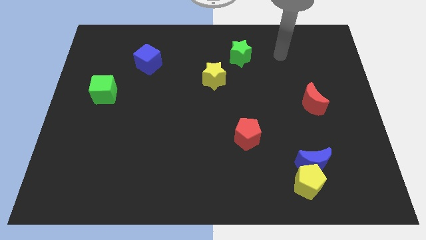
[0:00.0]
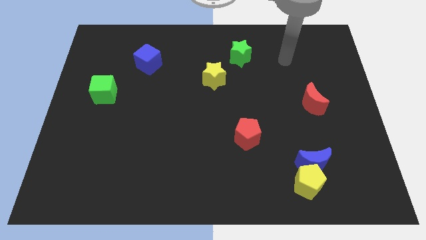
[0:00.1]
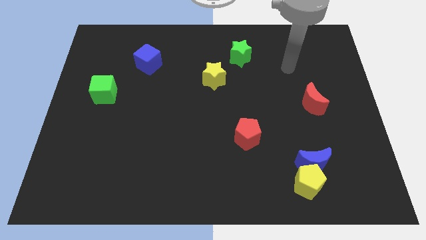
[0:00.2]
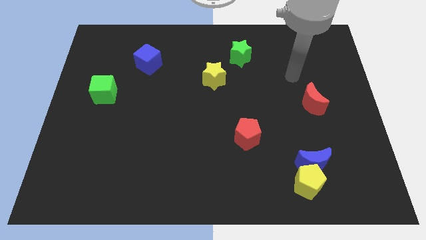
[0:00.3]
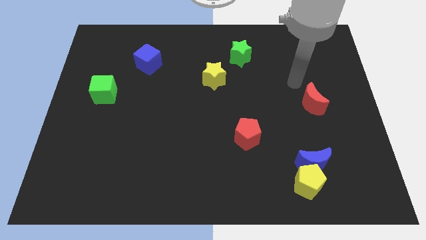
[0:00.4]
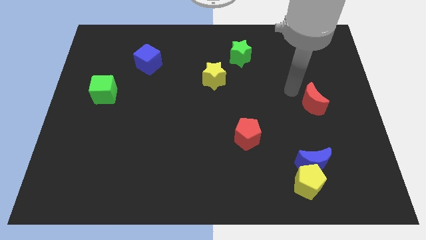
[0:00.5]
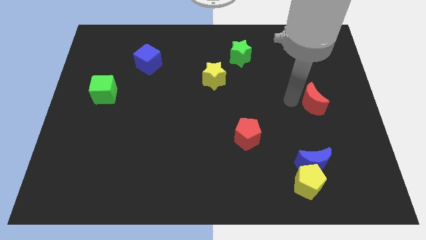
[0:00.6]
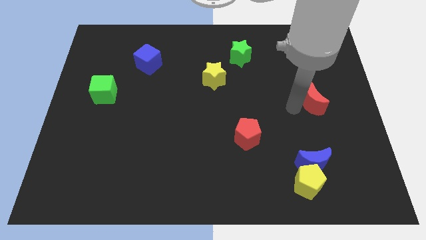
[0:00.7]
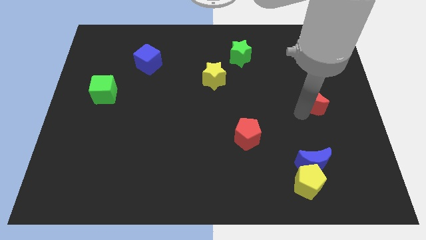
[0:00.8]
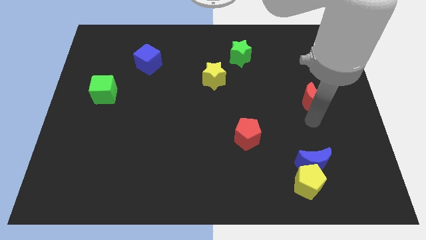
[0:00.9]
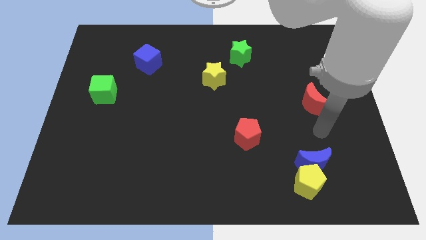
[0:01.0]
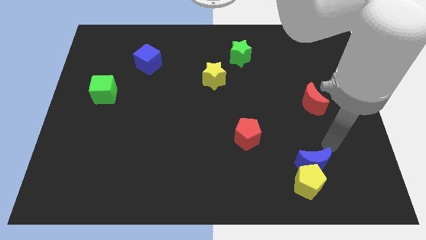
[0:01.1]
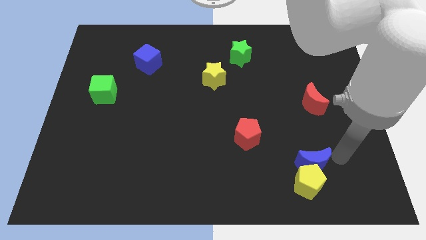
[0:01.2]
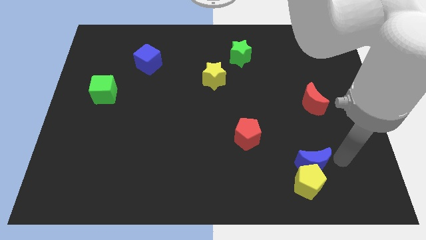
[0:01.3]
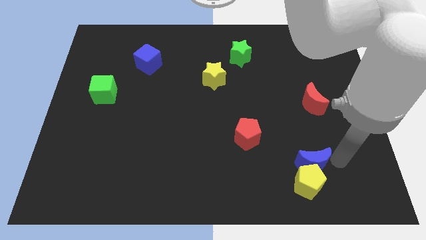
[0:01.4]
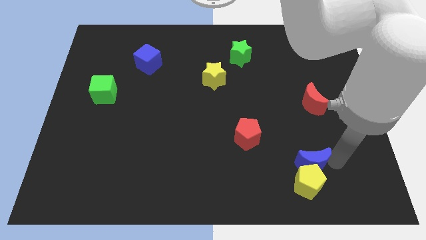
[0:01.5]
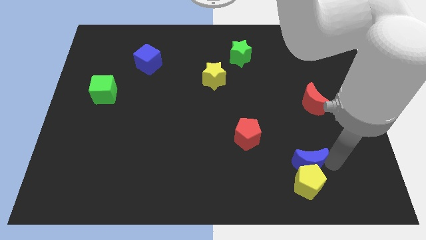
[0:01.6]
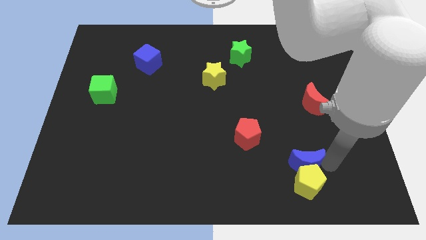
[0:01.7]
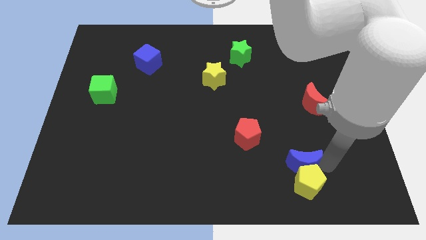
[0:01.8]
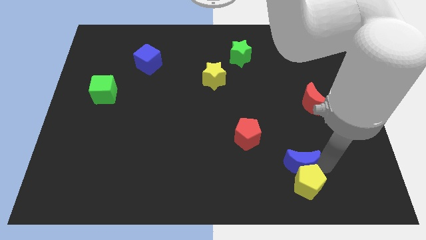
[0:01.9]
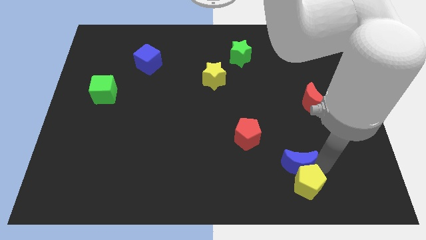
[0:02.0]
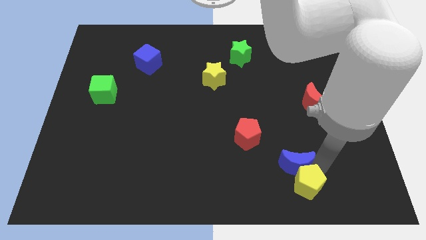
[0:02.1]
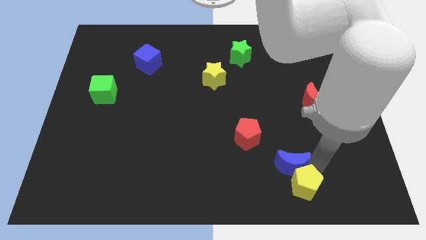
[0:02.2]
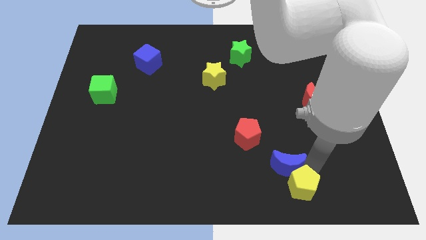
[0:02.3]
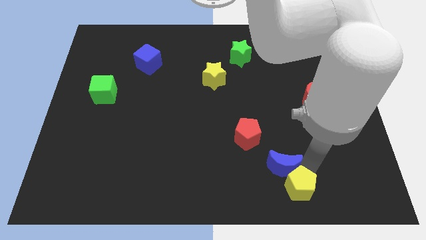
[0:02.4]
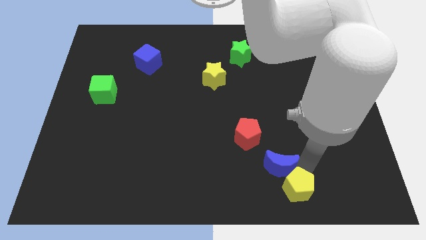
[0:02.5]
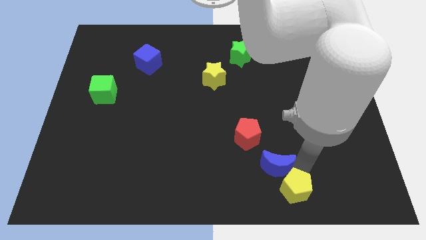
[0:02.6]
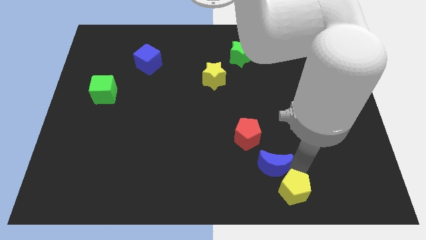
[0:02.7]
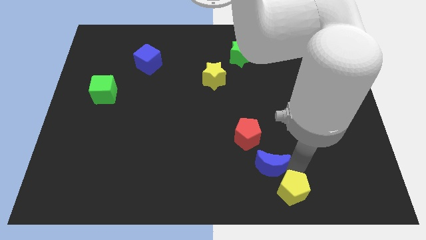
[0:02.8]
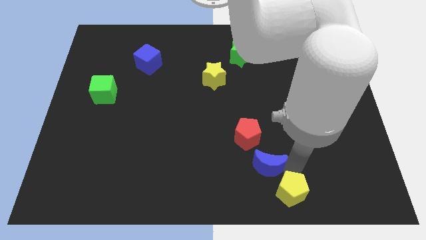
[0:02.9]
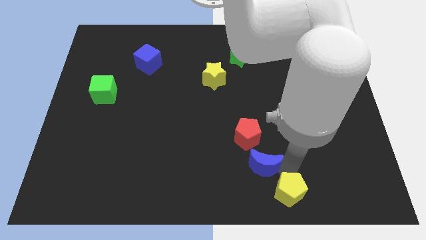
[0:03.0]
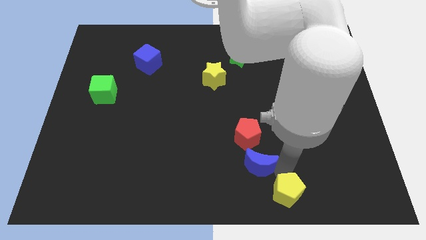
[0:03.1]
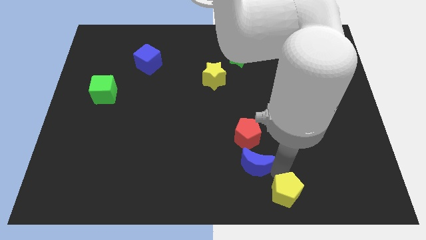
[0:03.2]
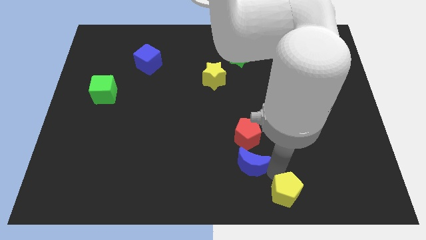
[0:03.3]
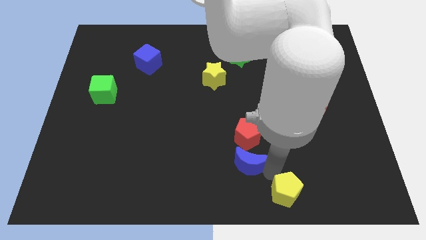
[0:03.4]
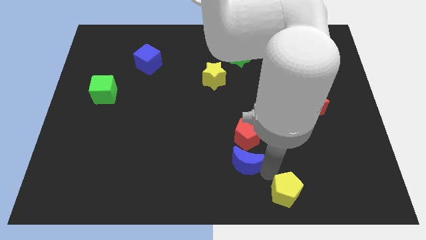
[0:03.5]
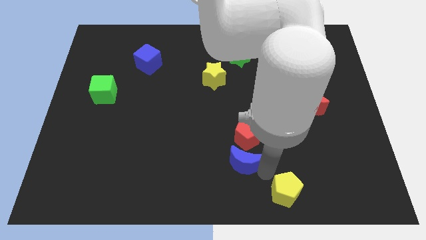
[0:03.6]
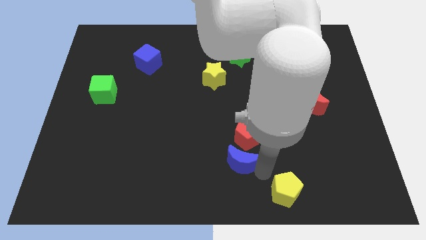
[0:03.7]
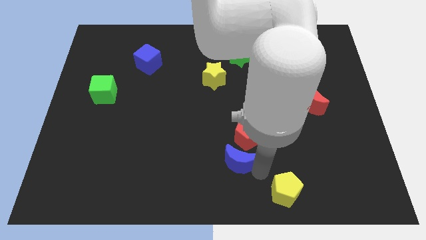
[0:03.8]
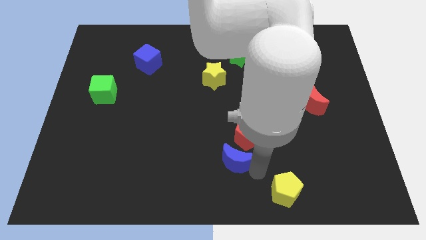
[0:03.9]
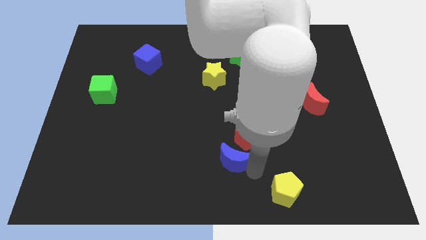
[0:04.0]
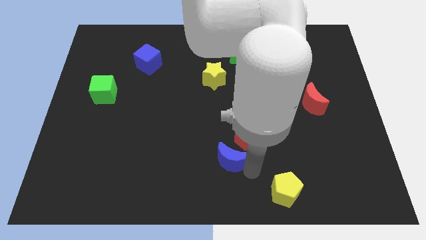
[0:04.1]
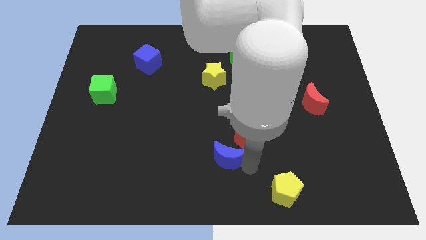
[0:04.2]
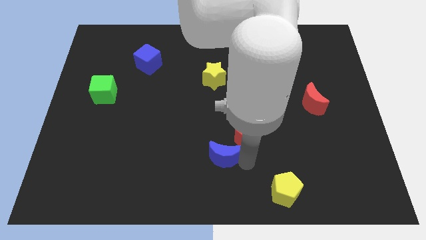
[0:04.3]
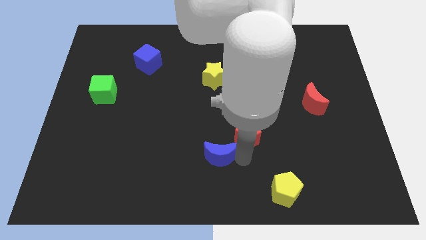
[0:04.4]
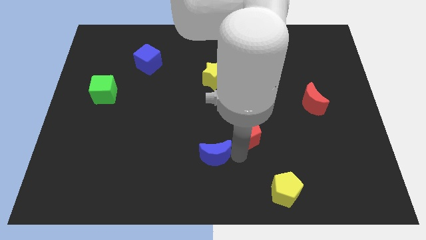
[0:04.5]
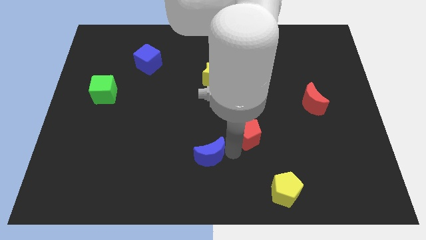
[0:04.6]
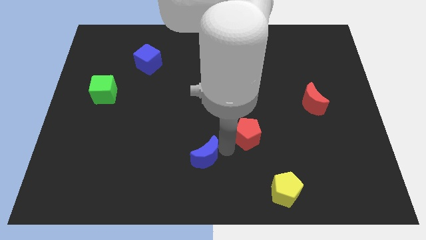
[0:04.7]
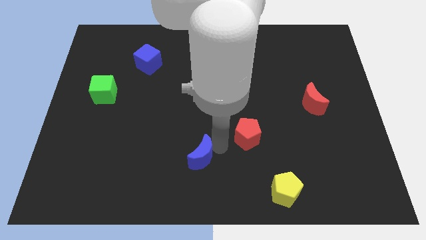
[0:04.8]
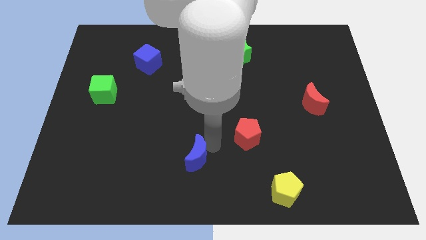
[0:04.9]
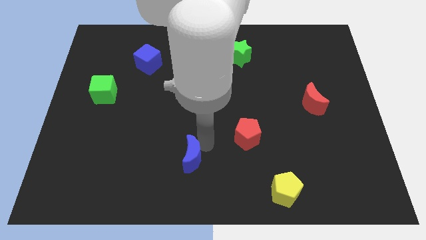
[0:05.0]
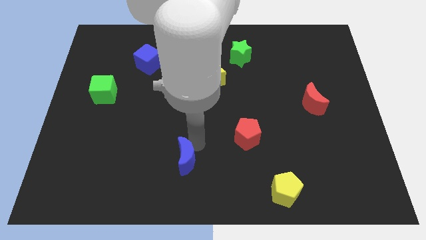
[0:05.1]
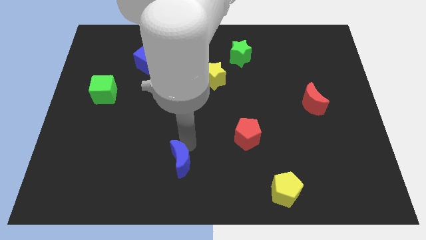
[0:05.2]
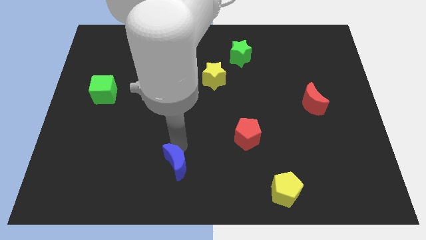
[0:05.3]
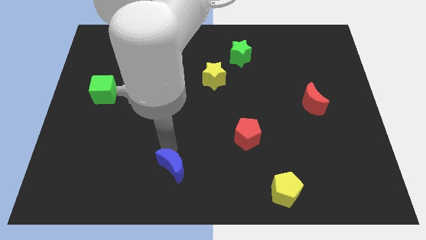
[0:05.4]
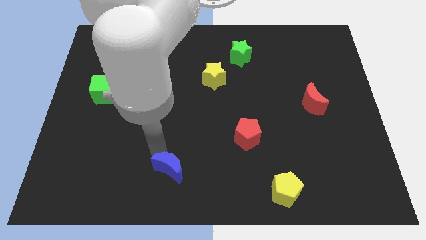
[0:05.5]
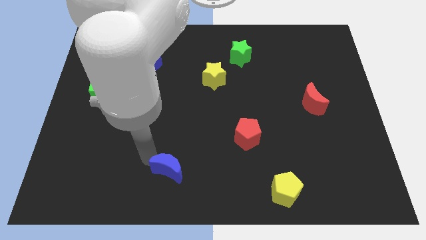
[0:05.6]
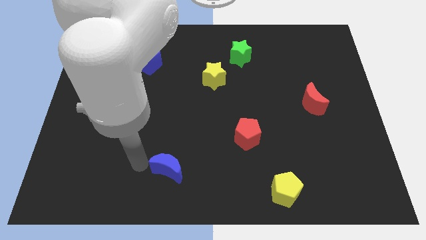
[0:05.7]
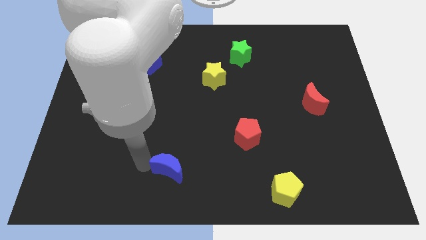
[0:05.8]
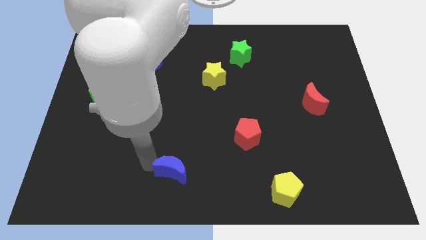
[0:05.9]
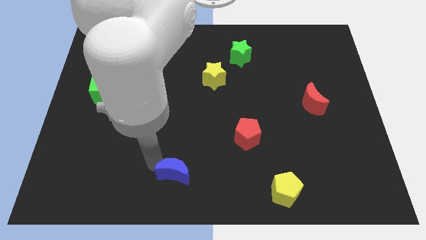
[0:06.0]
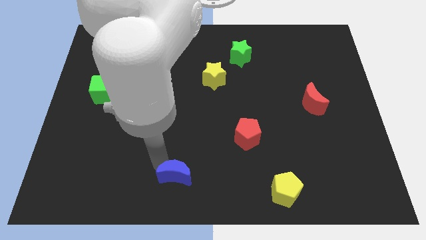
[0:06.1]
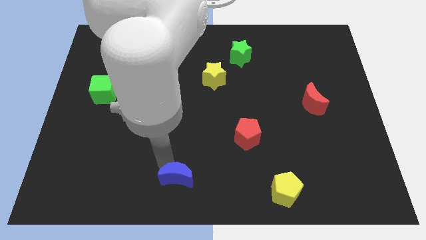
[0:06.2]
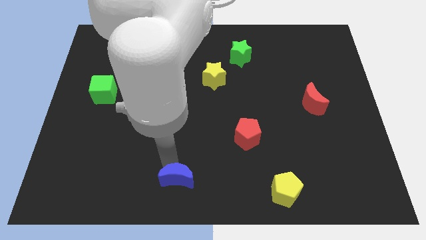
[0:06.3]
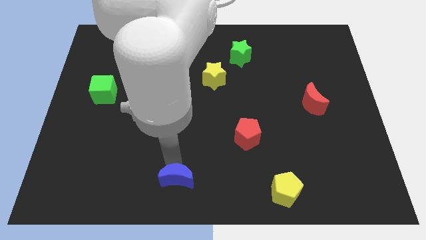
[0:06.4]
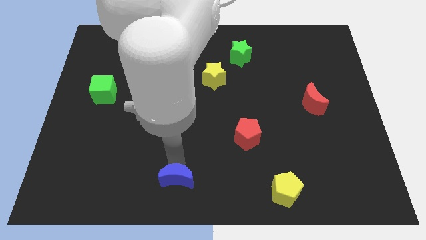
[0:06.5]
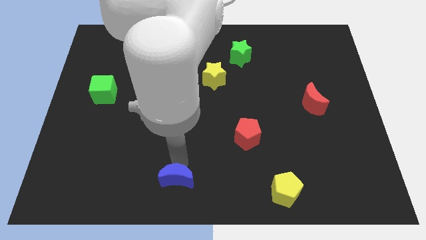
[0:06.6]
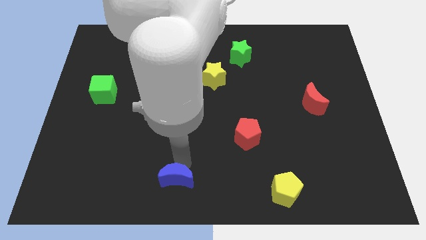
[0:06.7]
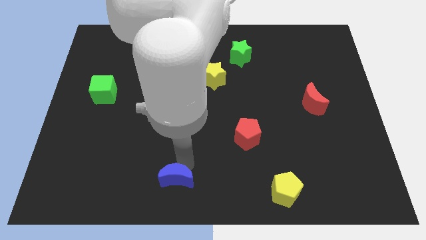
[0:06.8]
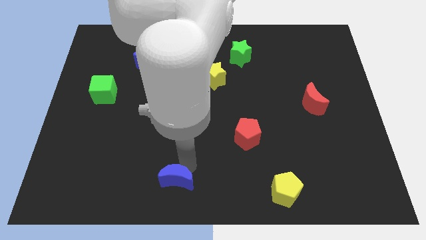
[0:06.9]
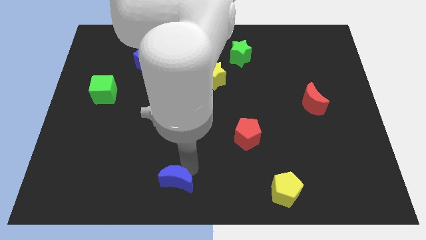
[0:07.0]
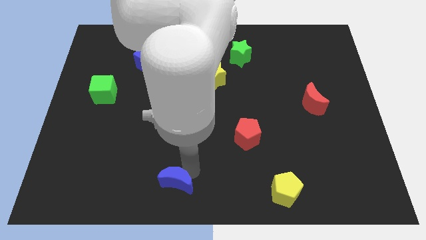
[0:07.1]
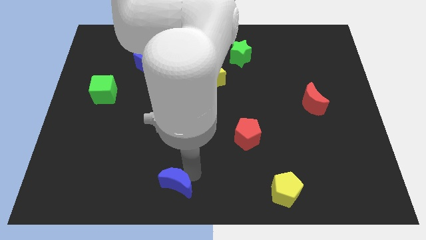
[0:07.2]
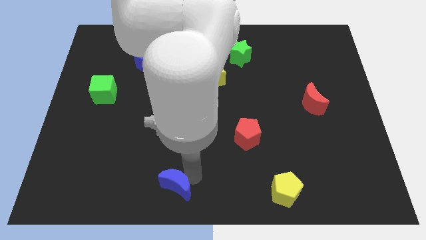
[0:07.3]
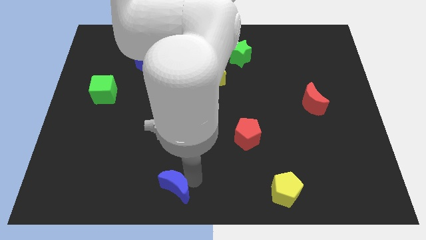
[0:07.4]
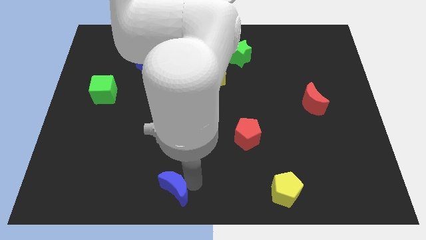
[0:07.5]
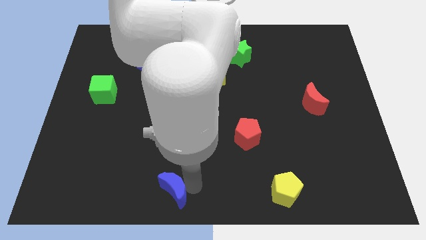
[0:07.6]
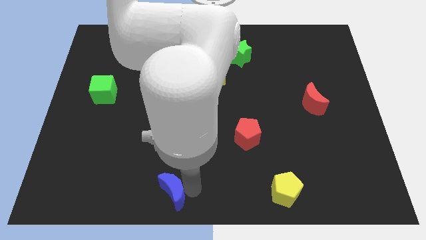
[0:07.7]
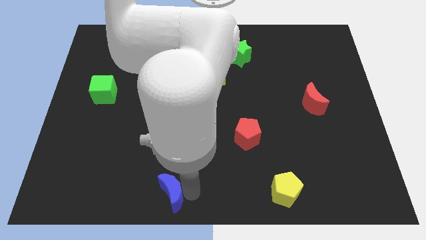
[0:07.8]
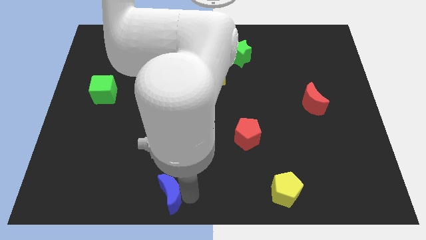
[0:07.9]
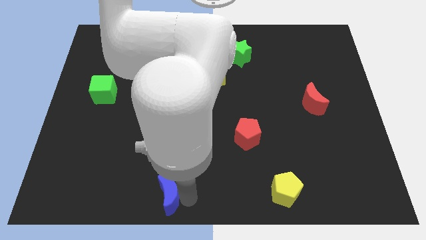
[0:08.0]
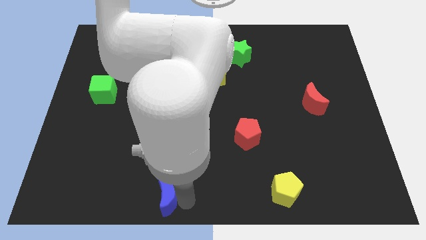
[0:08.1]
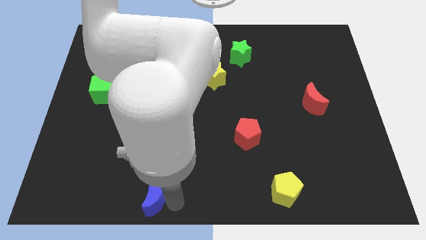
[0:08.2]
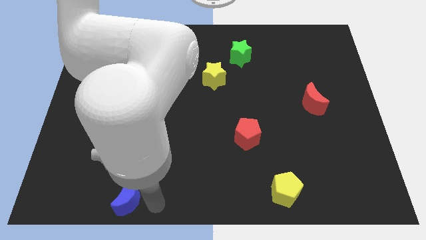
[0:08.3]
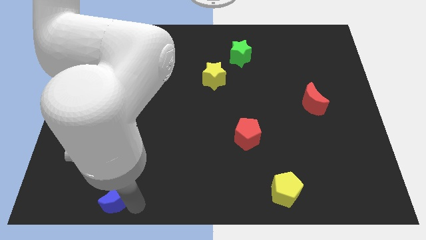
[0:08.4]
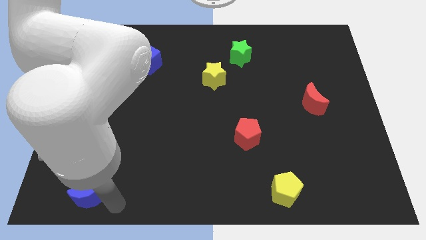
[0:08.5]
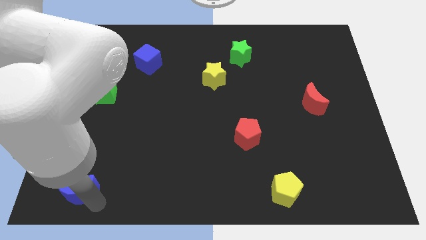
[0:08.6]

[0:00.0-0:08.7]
slide the blue moon to the bottom left corner
